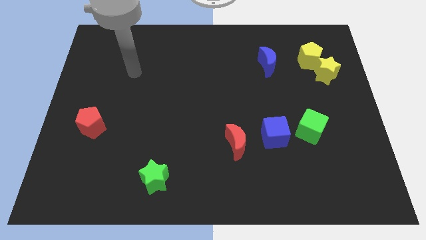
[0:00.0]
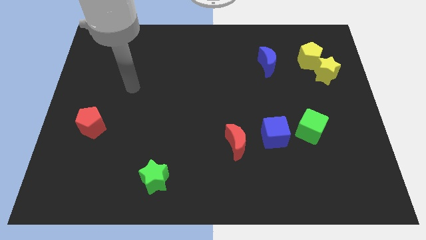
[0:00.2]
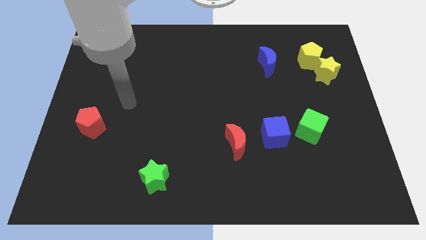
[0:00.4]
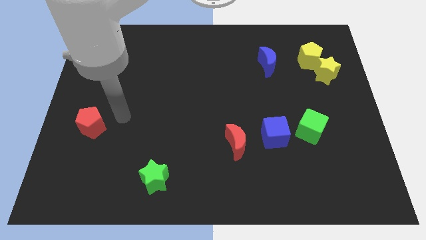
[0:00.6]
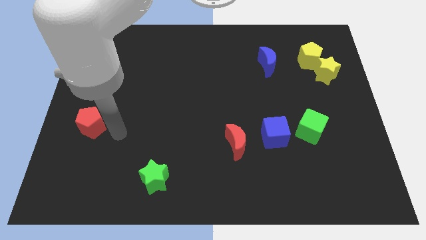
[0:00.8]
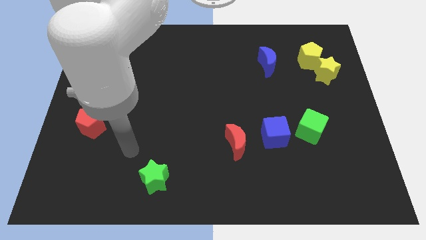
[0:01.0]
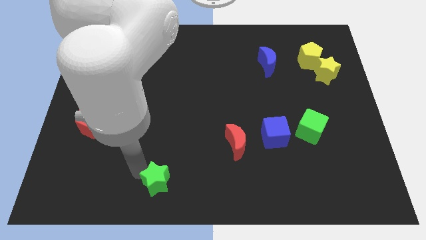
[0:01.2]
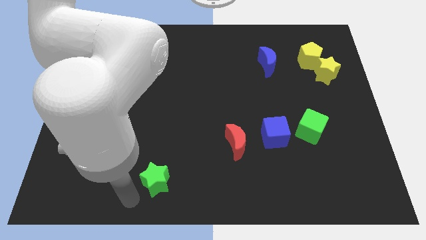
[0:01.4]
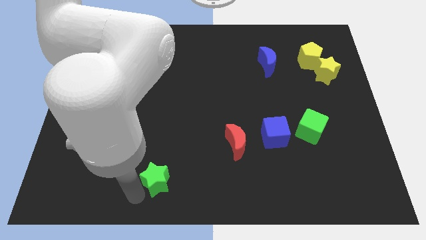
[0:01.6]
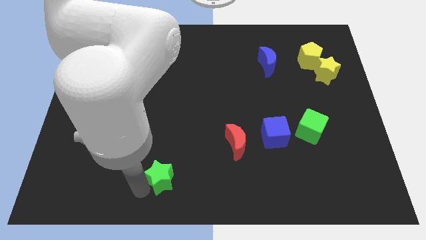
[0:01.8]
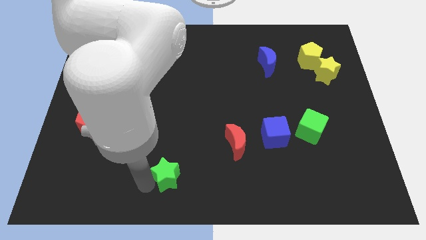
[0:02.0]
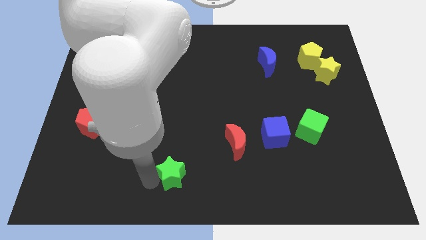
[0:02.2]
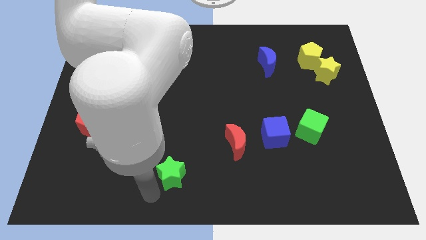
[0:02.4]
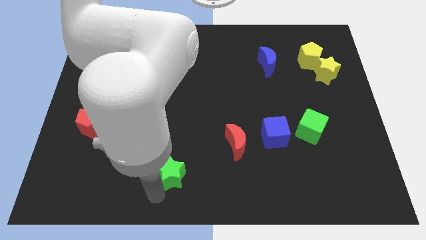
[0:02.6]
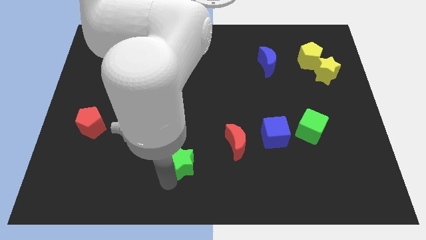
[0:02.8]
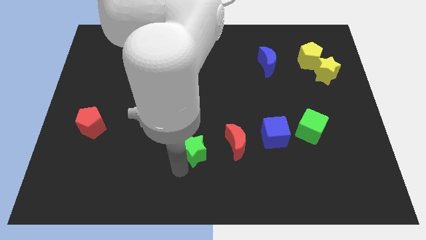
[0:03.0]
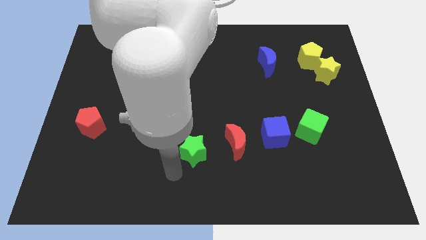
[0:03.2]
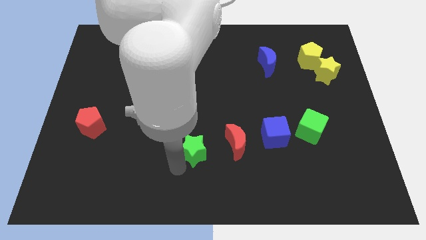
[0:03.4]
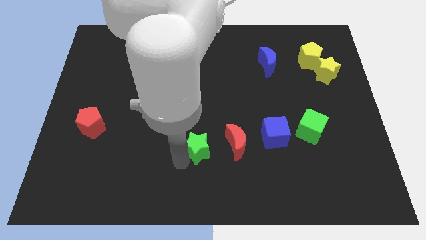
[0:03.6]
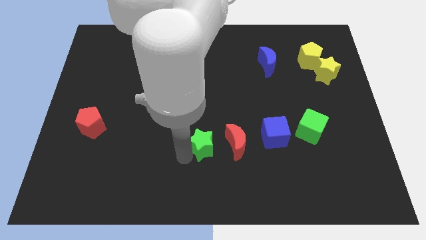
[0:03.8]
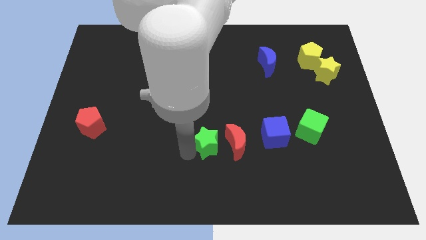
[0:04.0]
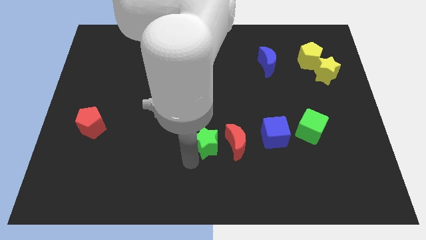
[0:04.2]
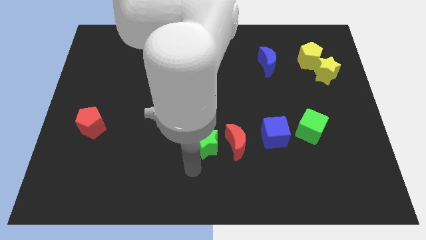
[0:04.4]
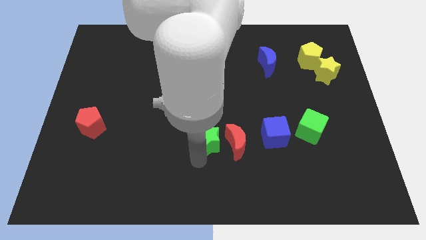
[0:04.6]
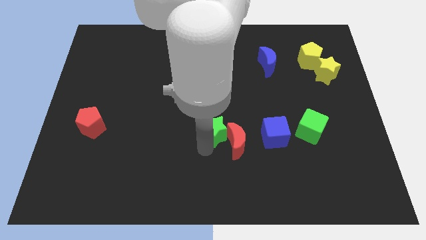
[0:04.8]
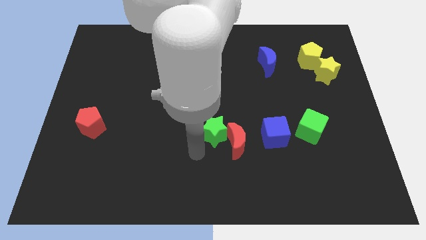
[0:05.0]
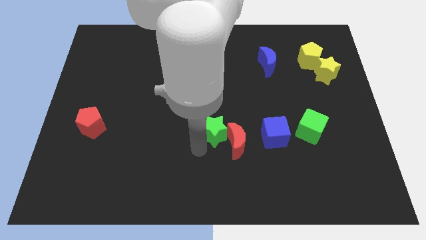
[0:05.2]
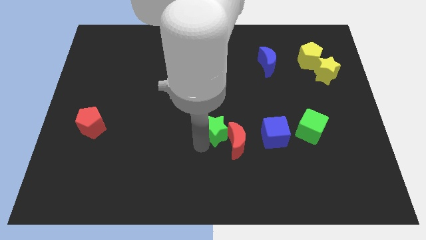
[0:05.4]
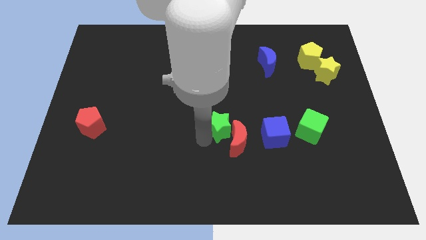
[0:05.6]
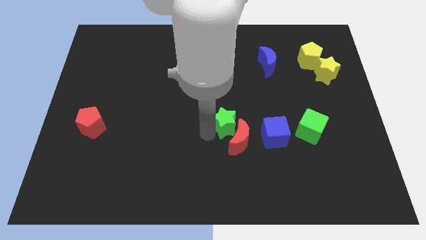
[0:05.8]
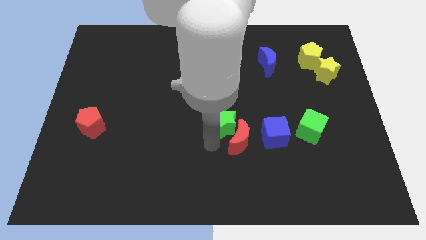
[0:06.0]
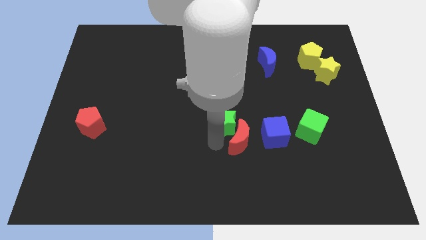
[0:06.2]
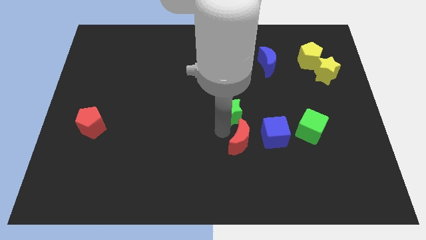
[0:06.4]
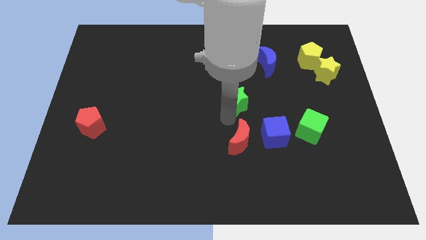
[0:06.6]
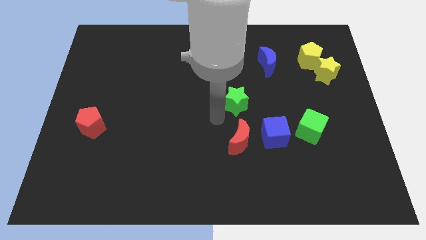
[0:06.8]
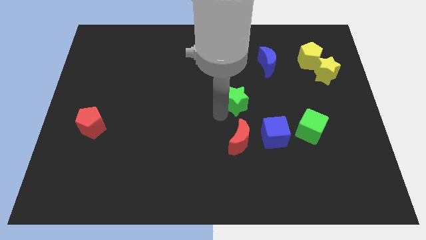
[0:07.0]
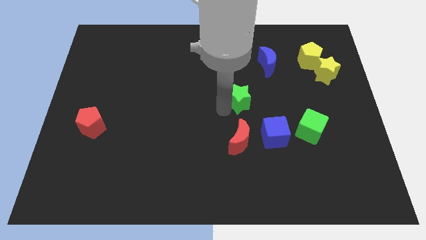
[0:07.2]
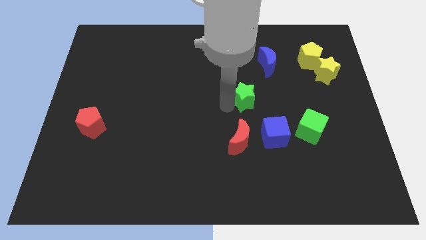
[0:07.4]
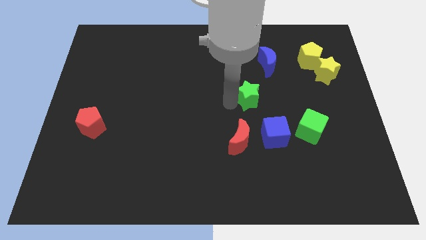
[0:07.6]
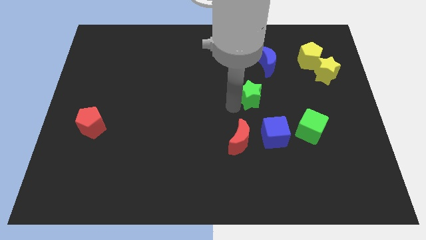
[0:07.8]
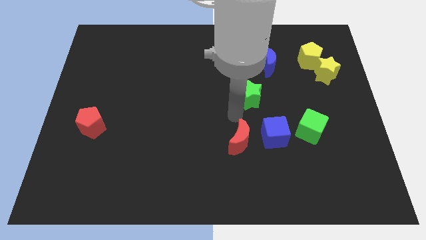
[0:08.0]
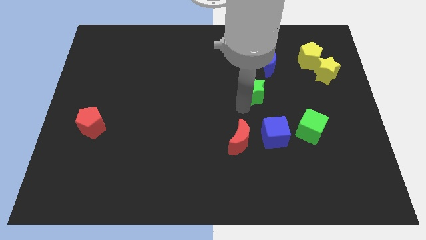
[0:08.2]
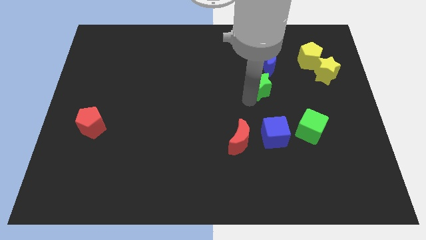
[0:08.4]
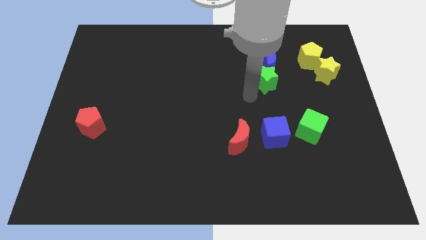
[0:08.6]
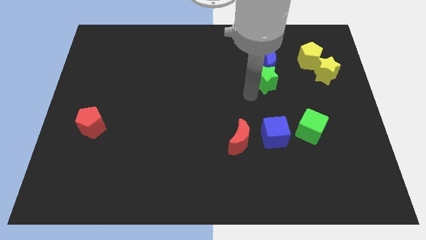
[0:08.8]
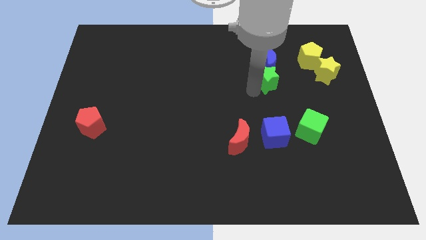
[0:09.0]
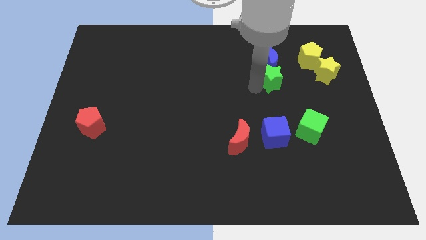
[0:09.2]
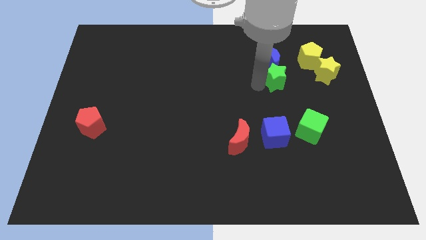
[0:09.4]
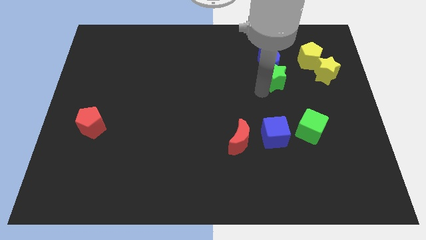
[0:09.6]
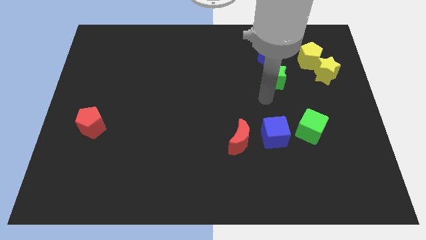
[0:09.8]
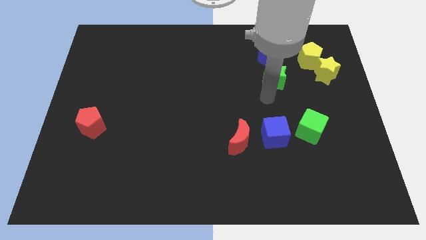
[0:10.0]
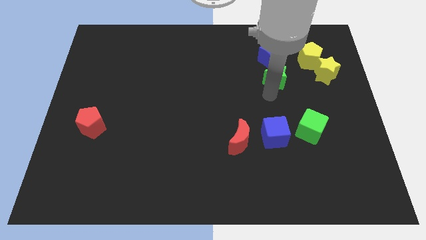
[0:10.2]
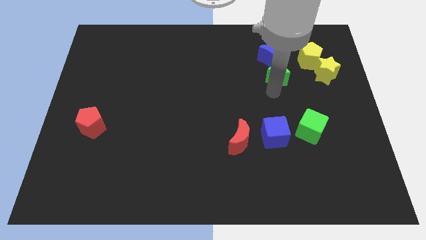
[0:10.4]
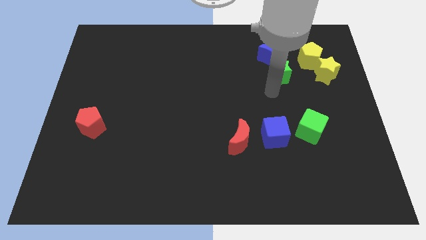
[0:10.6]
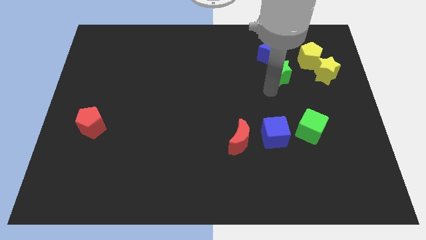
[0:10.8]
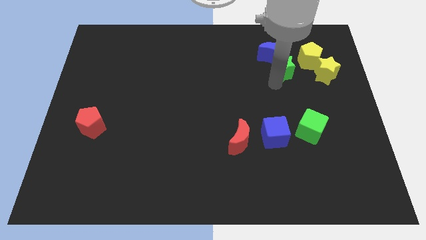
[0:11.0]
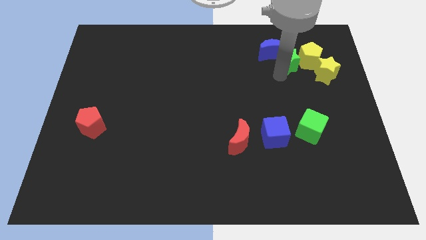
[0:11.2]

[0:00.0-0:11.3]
put the green star to the top left side of the yellow star

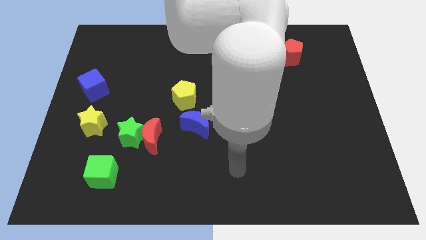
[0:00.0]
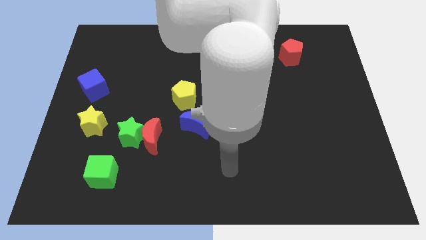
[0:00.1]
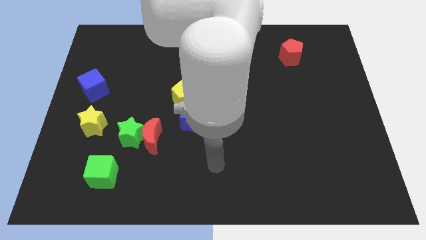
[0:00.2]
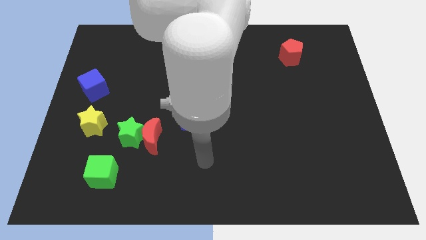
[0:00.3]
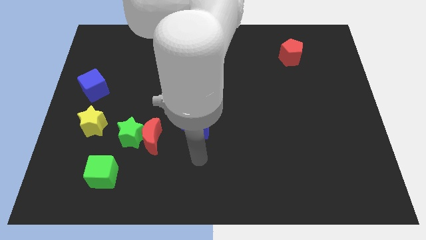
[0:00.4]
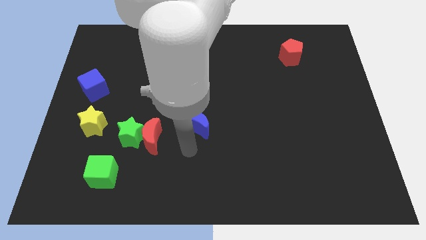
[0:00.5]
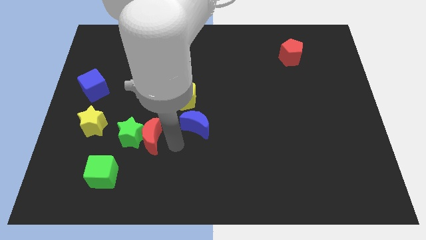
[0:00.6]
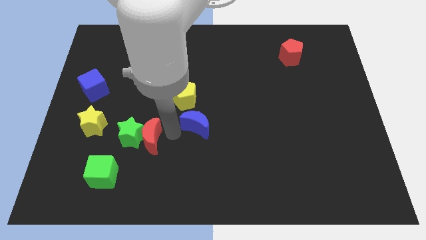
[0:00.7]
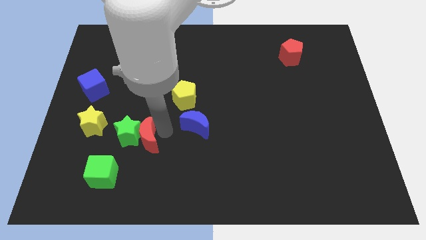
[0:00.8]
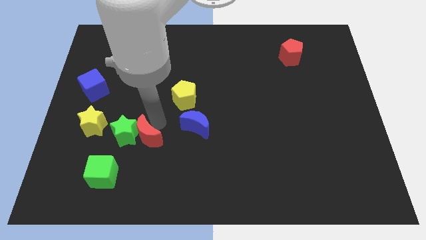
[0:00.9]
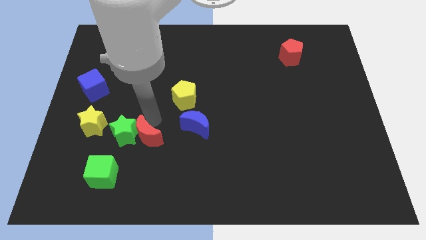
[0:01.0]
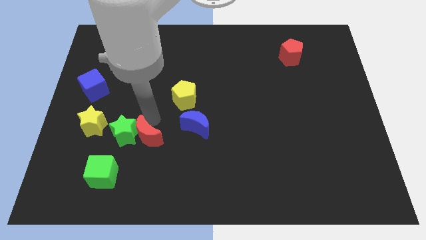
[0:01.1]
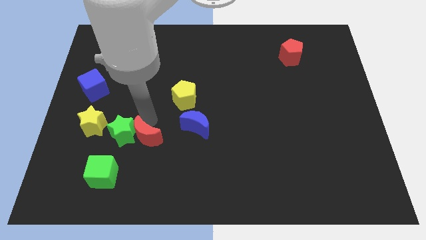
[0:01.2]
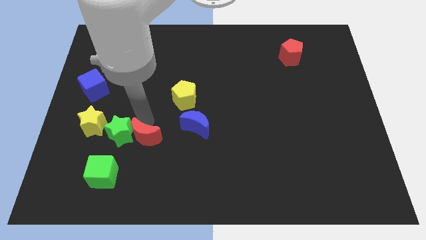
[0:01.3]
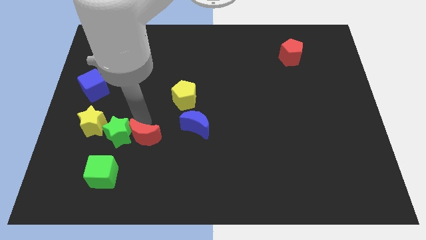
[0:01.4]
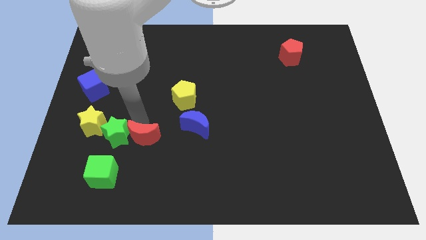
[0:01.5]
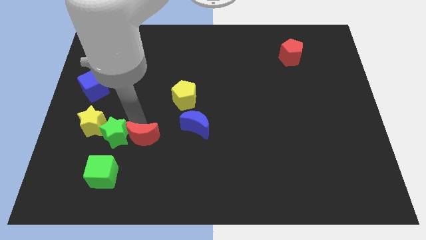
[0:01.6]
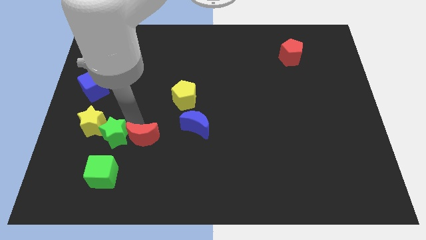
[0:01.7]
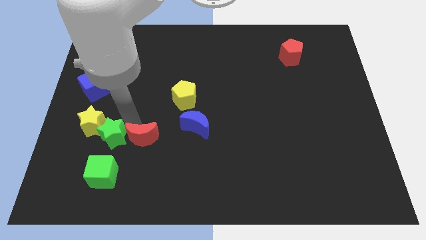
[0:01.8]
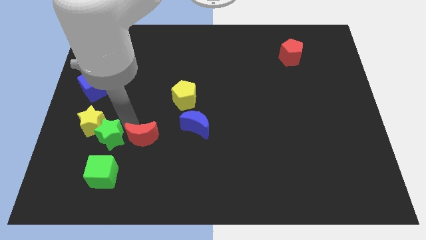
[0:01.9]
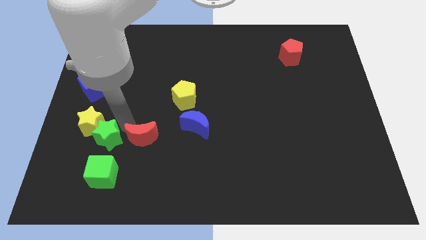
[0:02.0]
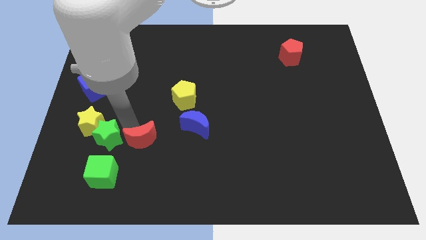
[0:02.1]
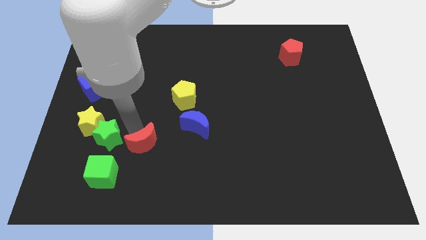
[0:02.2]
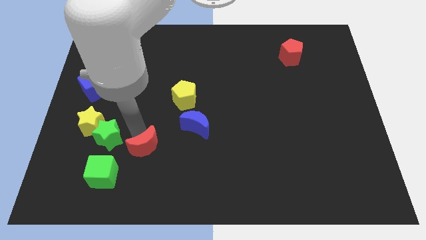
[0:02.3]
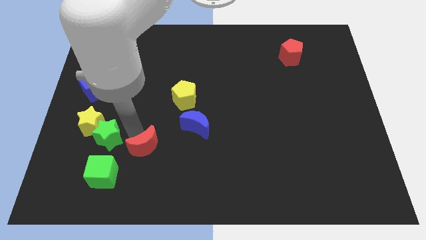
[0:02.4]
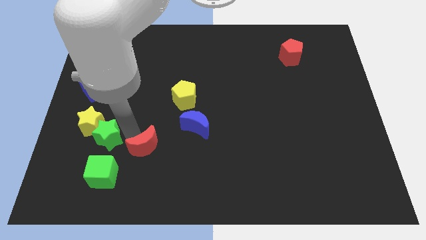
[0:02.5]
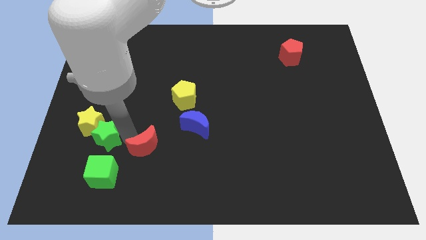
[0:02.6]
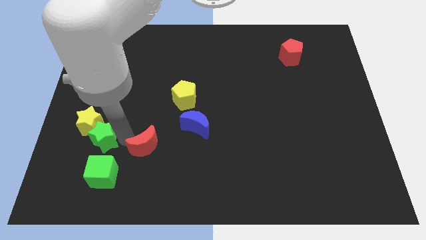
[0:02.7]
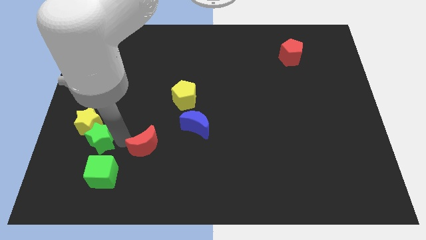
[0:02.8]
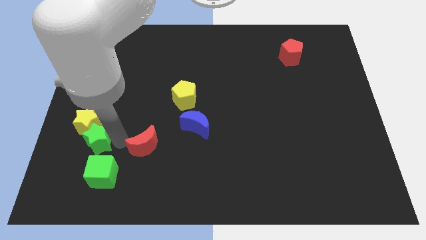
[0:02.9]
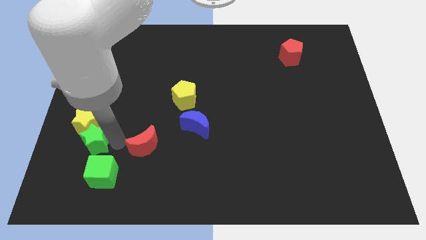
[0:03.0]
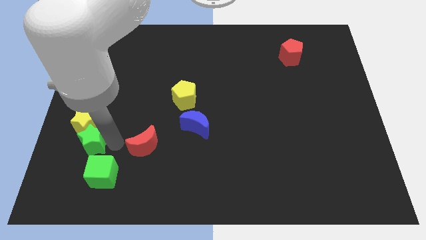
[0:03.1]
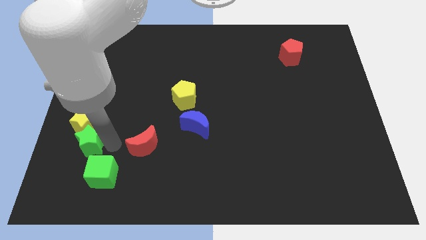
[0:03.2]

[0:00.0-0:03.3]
push the green star to the bottom side of the blue cube
